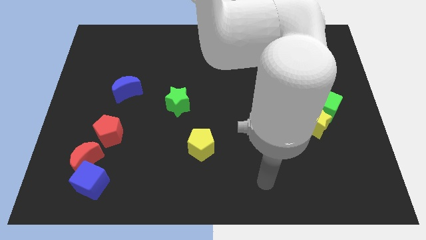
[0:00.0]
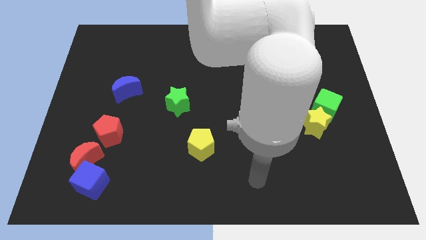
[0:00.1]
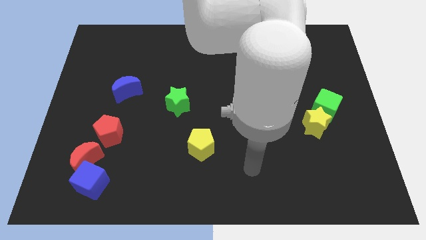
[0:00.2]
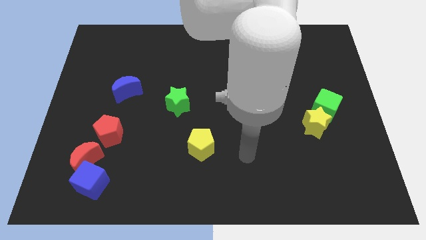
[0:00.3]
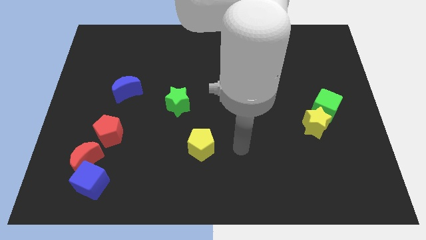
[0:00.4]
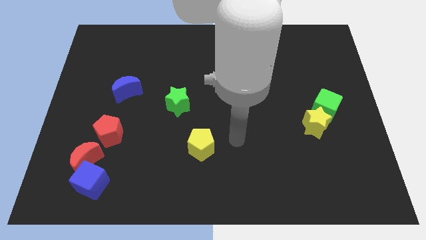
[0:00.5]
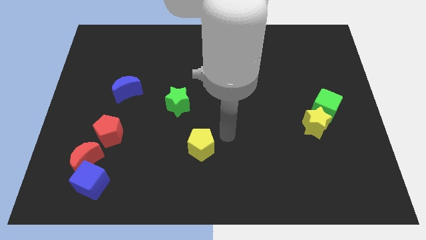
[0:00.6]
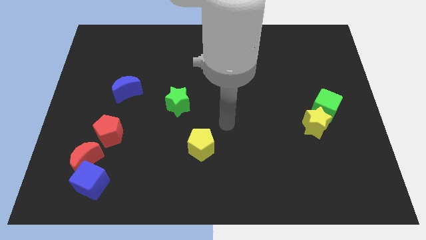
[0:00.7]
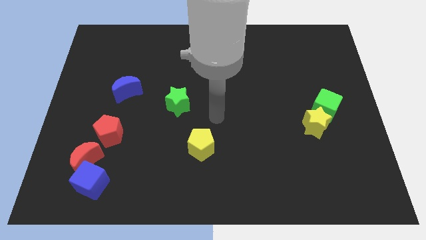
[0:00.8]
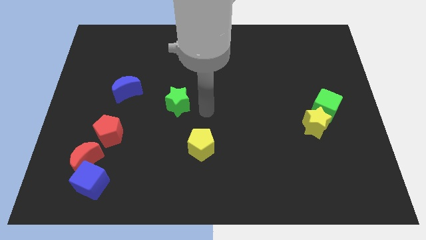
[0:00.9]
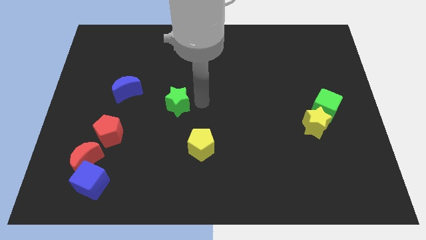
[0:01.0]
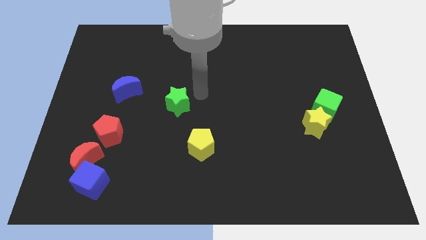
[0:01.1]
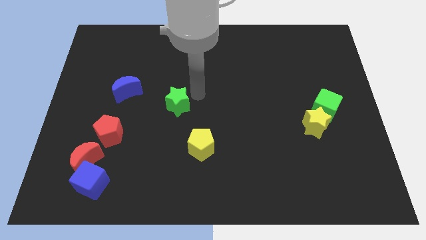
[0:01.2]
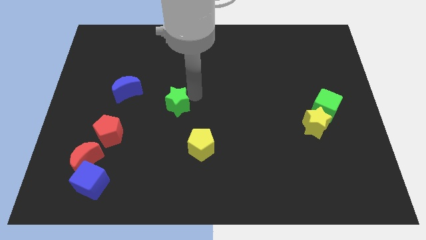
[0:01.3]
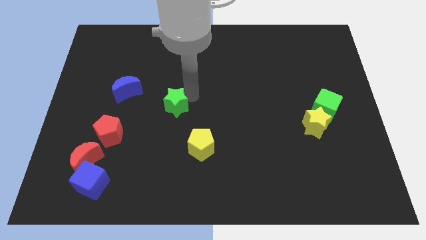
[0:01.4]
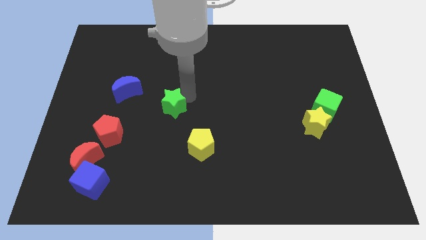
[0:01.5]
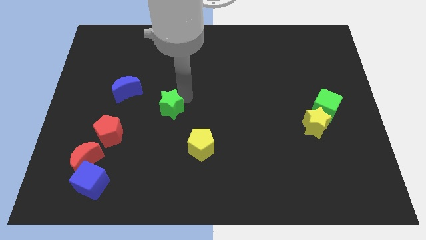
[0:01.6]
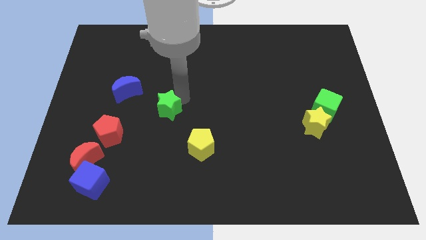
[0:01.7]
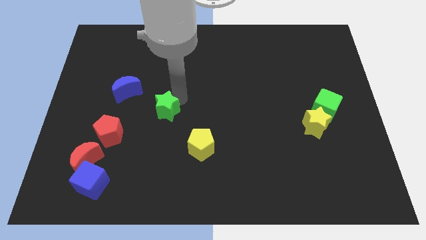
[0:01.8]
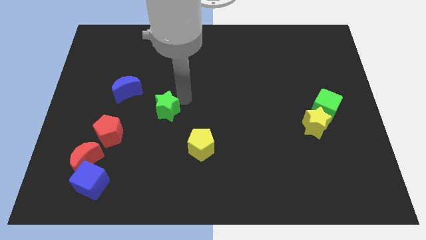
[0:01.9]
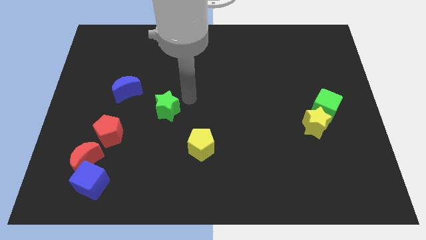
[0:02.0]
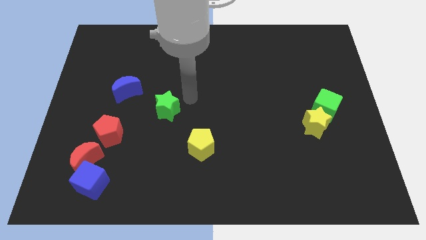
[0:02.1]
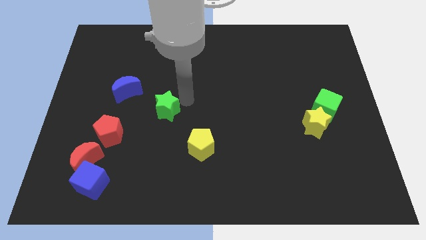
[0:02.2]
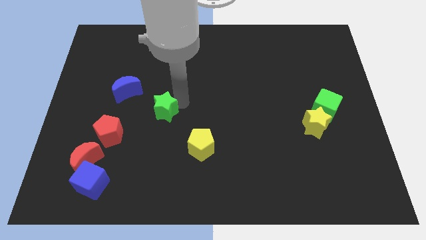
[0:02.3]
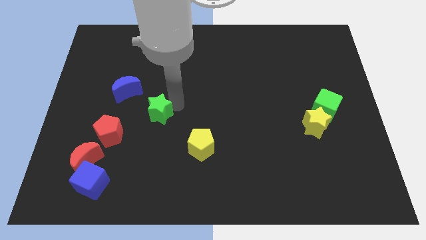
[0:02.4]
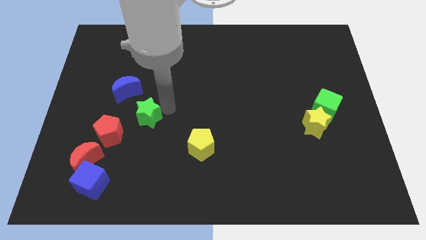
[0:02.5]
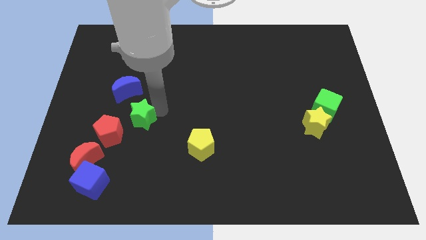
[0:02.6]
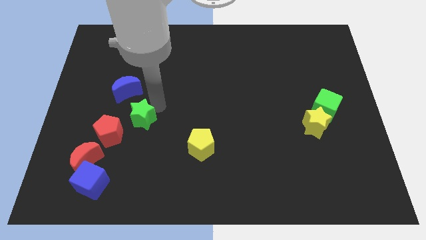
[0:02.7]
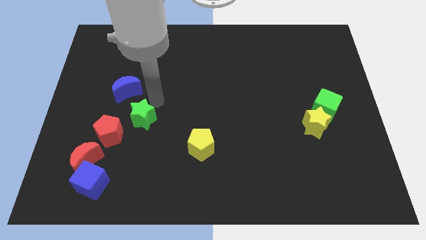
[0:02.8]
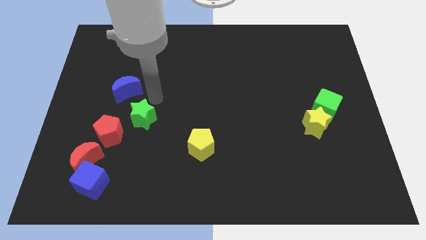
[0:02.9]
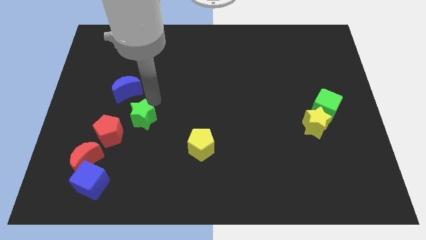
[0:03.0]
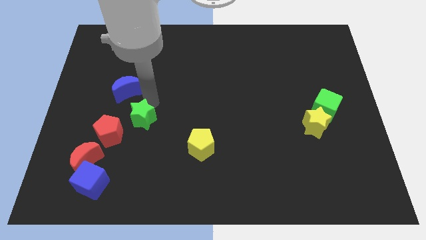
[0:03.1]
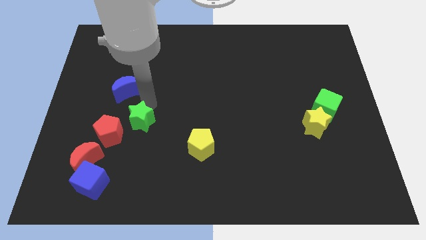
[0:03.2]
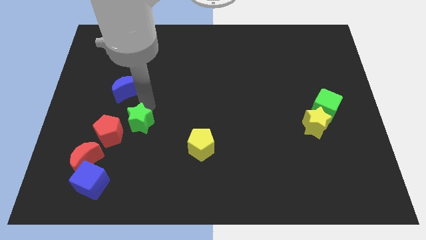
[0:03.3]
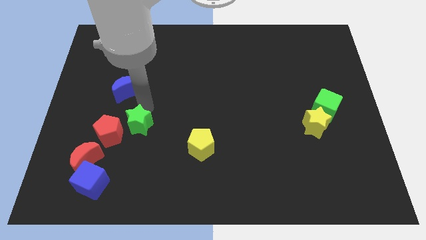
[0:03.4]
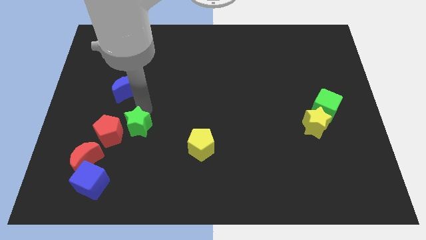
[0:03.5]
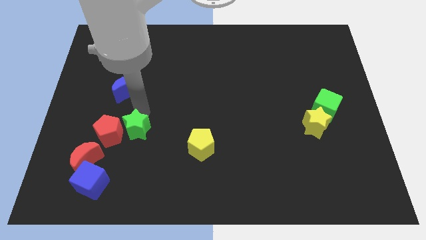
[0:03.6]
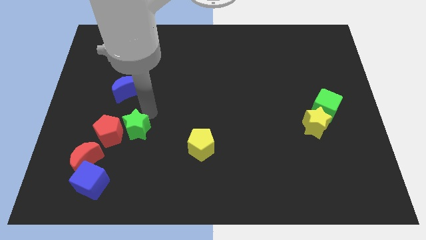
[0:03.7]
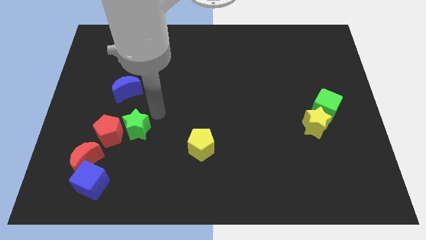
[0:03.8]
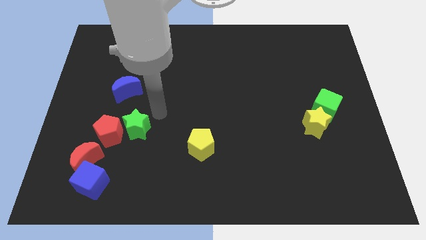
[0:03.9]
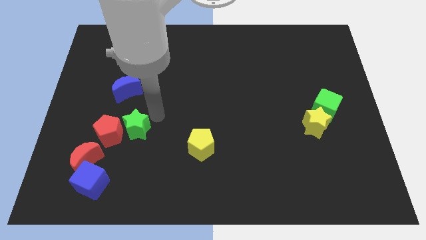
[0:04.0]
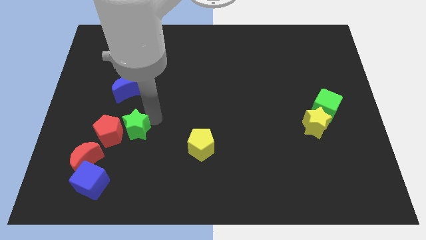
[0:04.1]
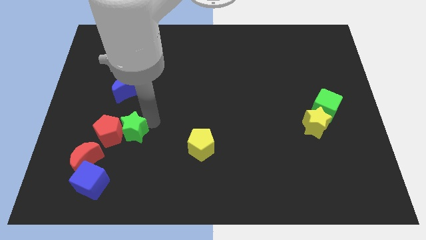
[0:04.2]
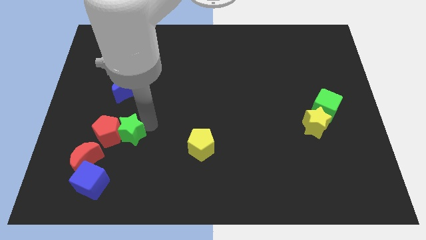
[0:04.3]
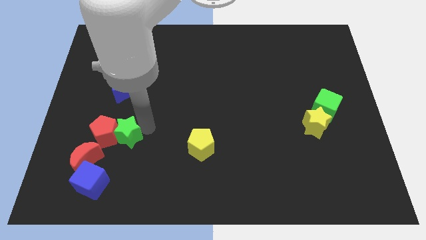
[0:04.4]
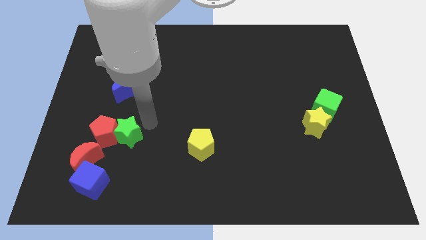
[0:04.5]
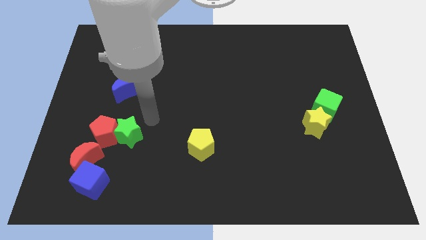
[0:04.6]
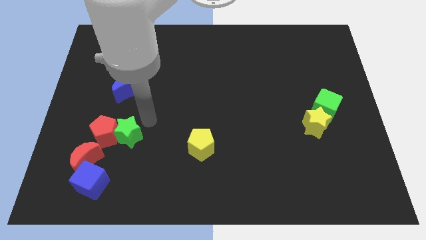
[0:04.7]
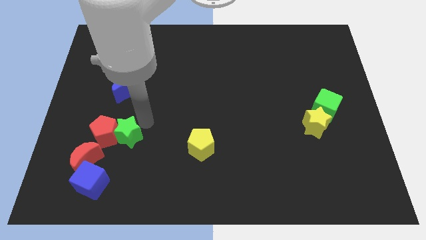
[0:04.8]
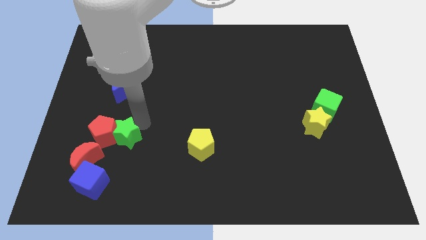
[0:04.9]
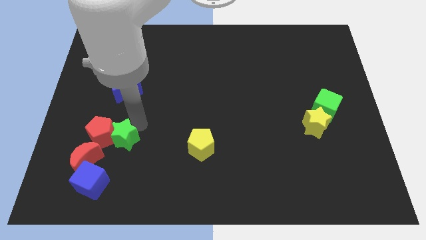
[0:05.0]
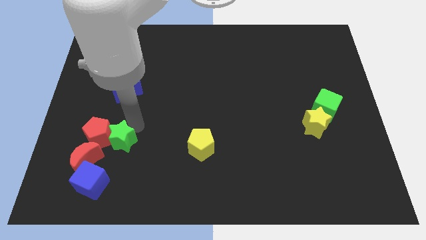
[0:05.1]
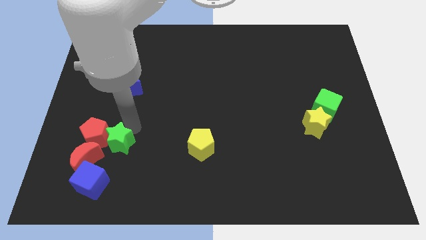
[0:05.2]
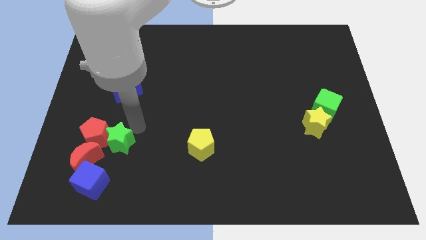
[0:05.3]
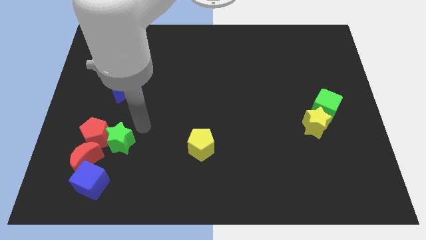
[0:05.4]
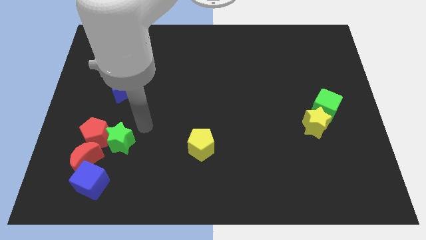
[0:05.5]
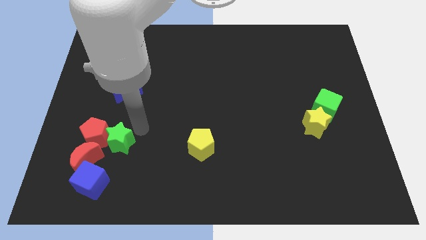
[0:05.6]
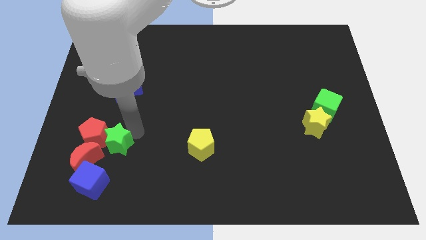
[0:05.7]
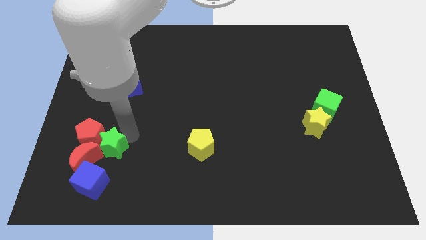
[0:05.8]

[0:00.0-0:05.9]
put the green star towards the red moon

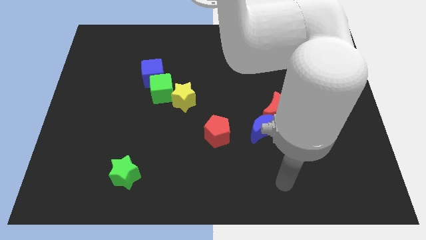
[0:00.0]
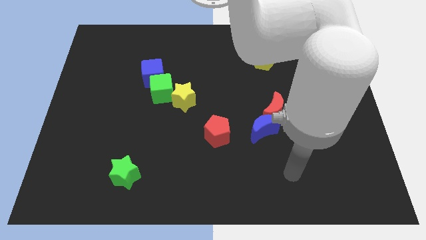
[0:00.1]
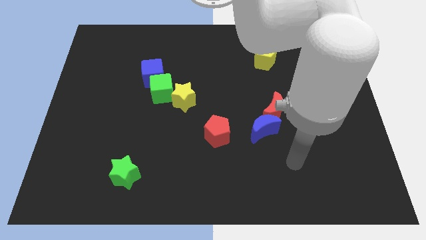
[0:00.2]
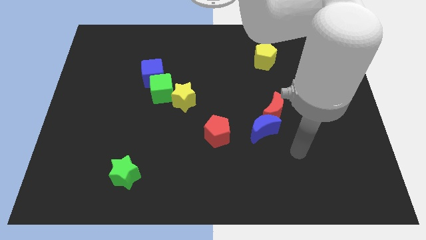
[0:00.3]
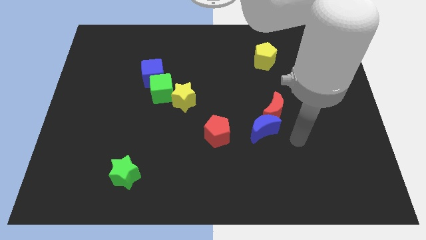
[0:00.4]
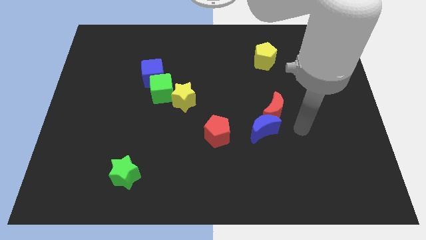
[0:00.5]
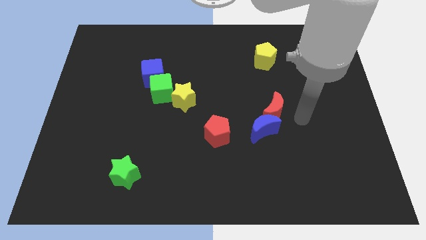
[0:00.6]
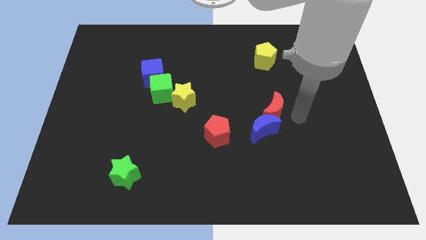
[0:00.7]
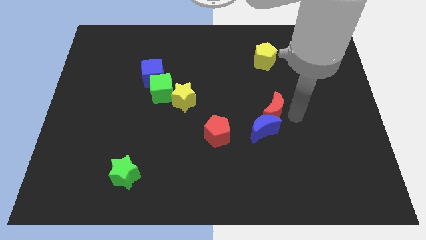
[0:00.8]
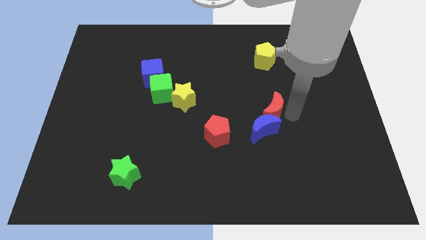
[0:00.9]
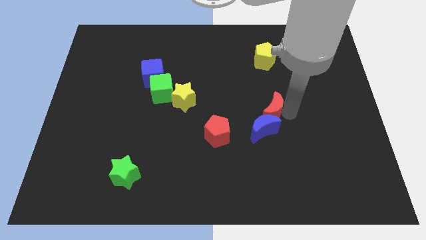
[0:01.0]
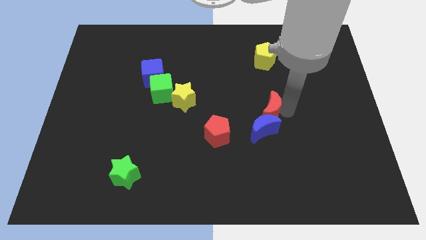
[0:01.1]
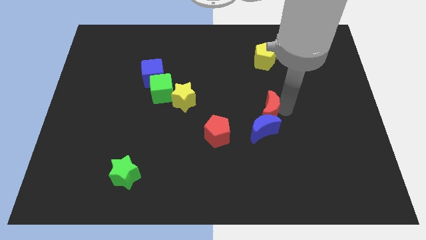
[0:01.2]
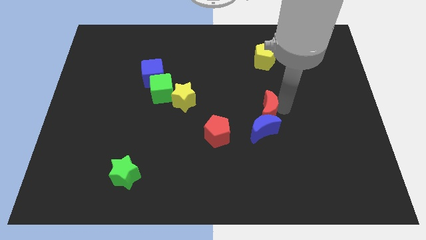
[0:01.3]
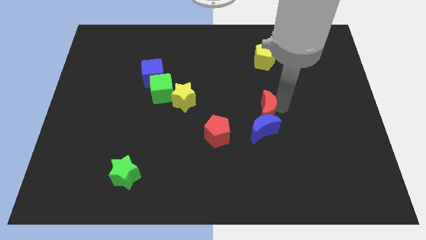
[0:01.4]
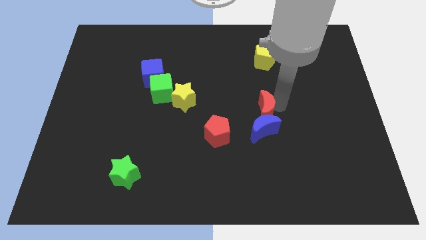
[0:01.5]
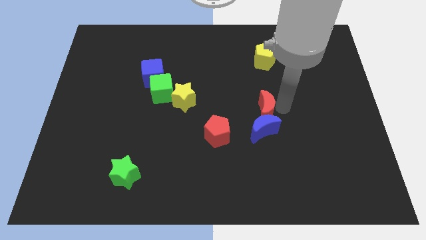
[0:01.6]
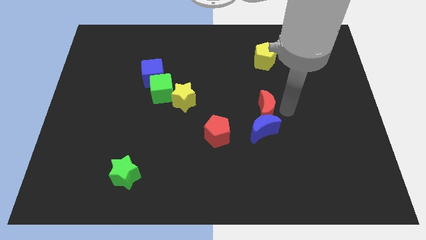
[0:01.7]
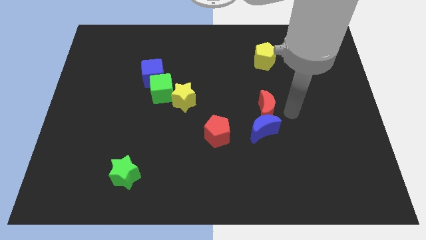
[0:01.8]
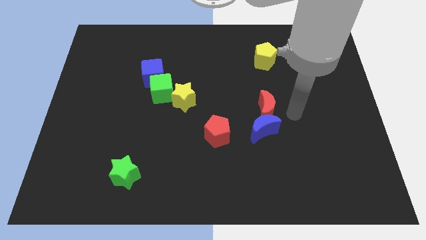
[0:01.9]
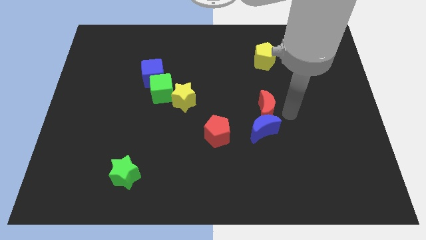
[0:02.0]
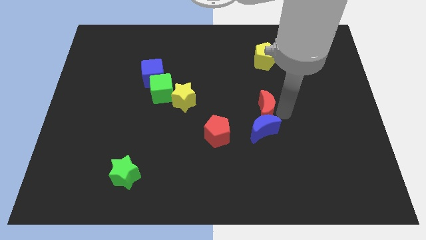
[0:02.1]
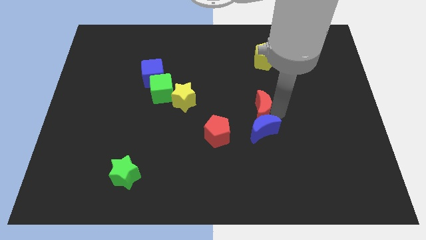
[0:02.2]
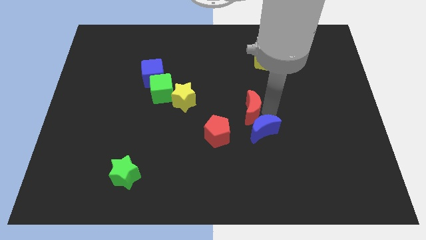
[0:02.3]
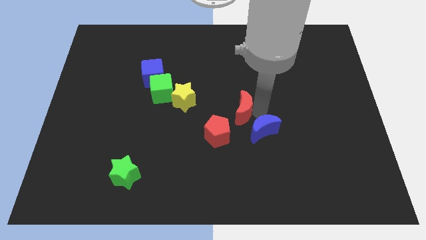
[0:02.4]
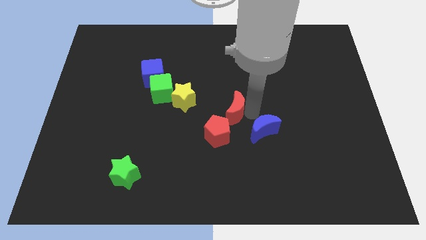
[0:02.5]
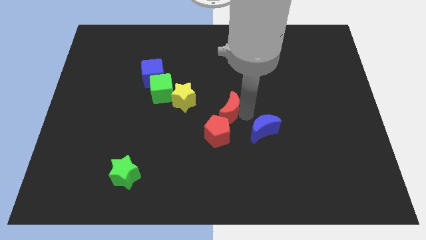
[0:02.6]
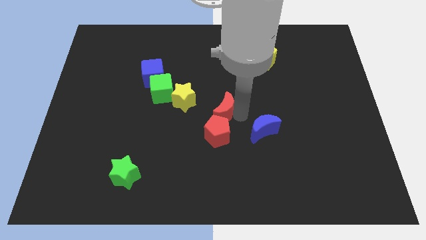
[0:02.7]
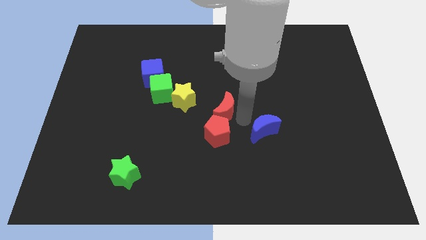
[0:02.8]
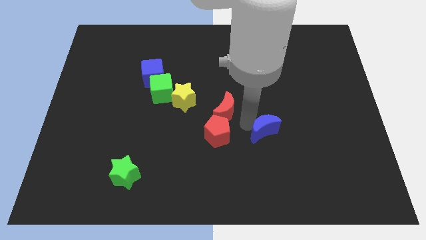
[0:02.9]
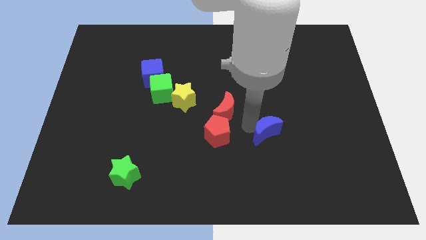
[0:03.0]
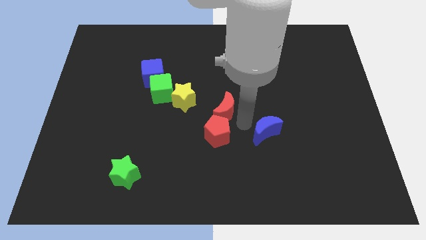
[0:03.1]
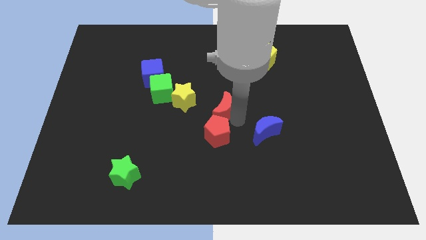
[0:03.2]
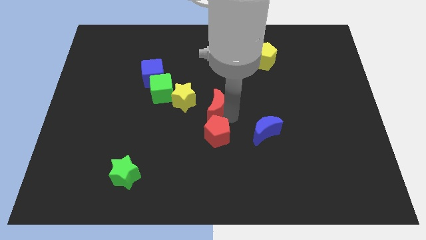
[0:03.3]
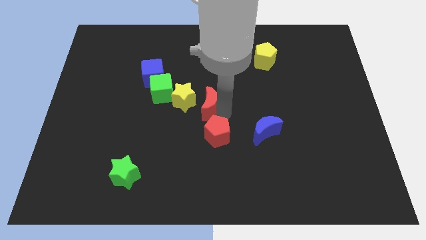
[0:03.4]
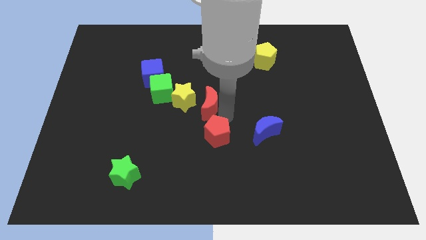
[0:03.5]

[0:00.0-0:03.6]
put the red moon close to the yellow star
